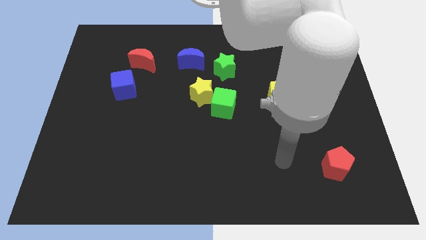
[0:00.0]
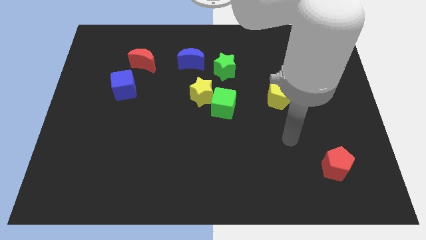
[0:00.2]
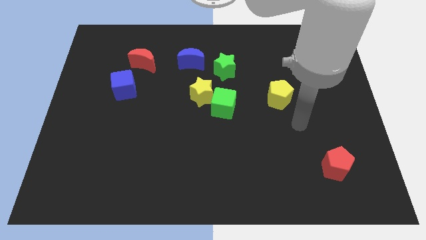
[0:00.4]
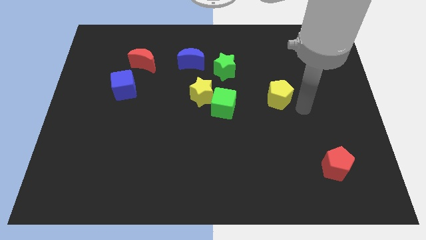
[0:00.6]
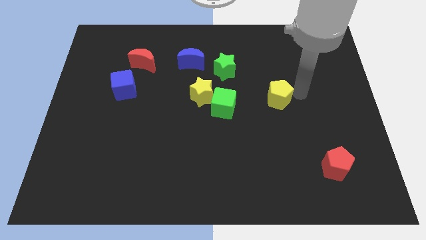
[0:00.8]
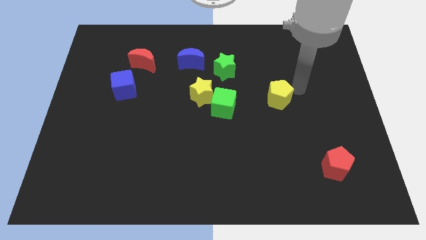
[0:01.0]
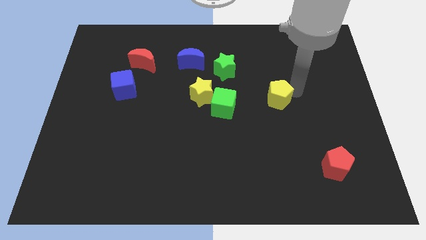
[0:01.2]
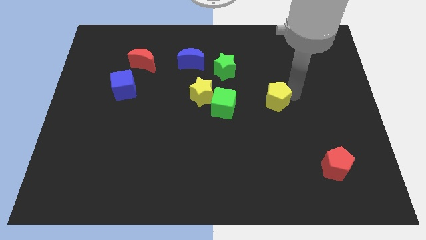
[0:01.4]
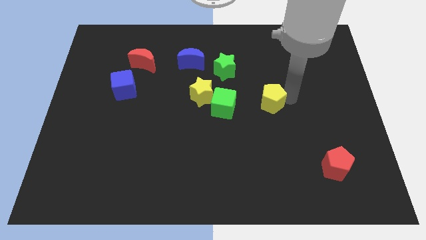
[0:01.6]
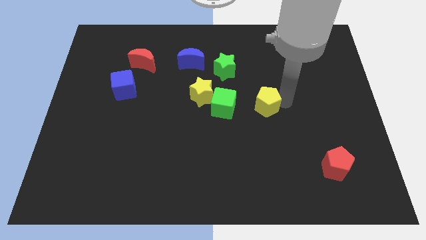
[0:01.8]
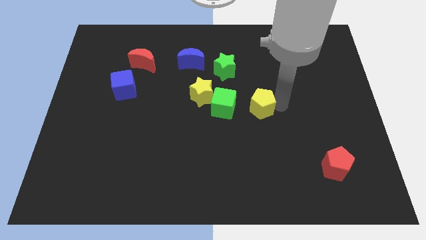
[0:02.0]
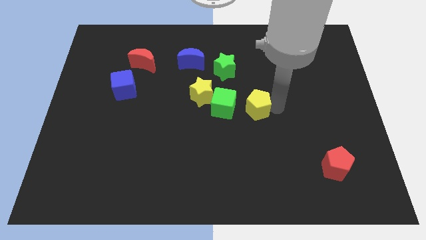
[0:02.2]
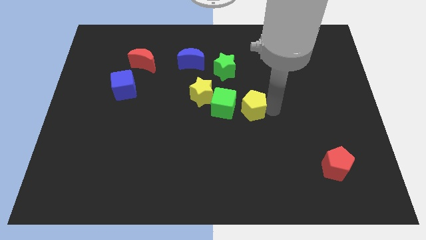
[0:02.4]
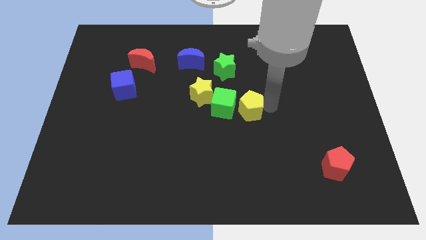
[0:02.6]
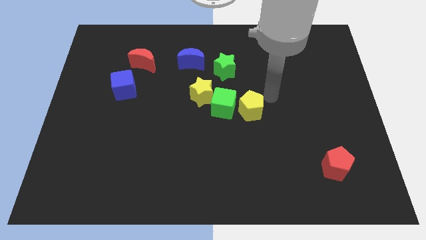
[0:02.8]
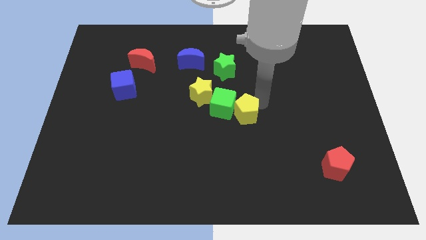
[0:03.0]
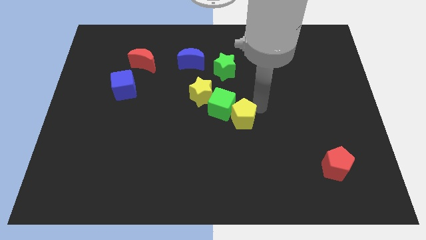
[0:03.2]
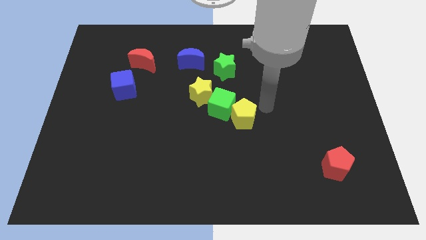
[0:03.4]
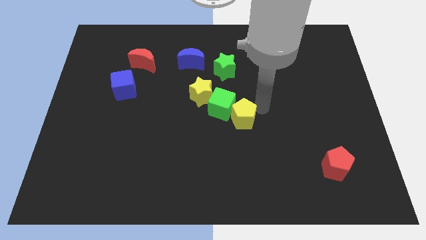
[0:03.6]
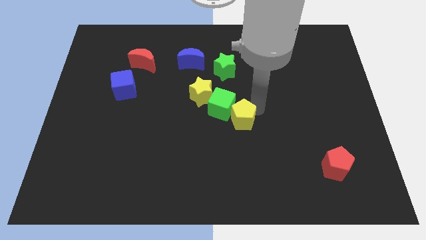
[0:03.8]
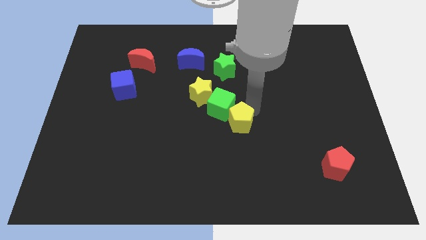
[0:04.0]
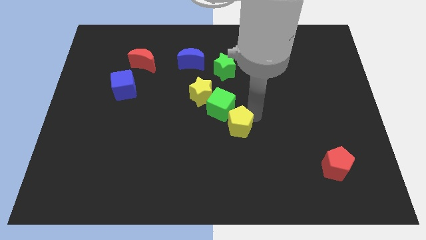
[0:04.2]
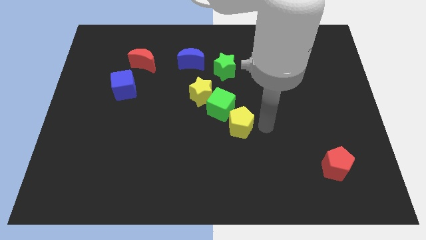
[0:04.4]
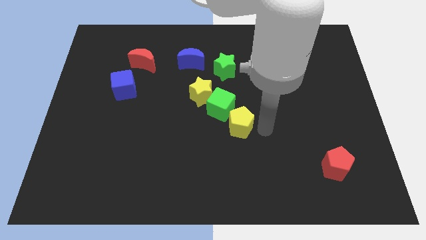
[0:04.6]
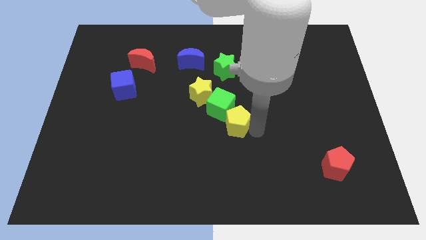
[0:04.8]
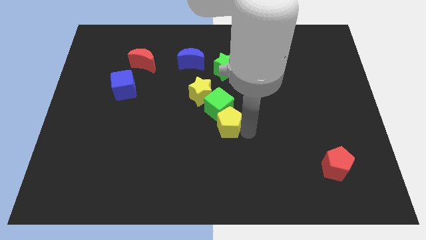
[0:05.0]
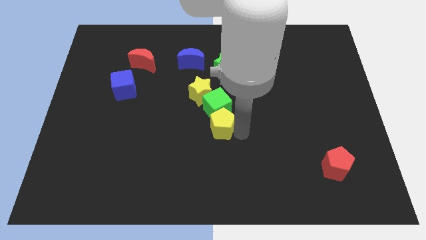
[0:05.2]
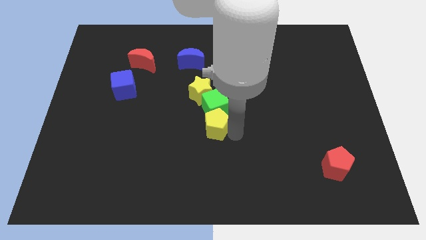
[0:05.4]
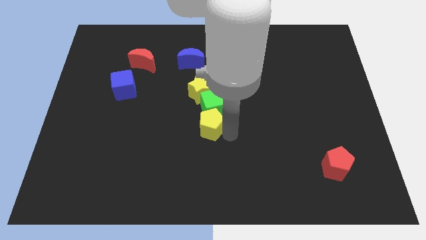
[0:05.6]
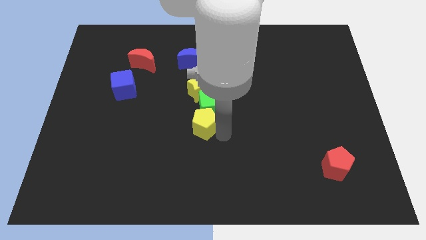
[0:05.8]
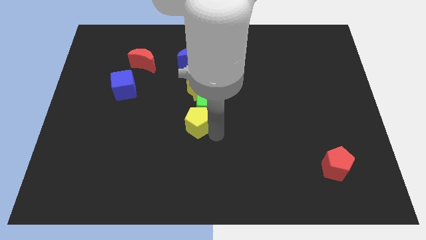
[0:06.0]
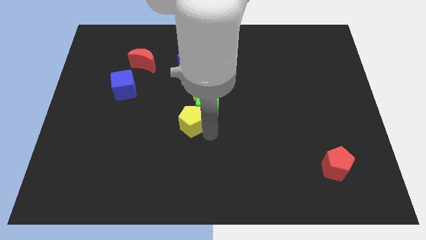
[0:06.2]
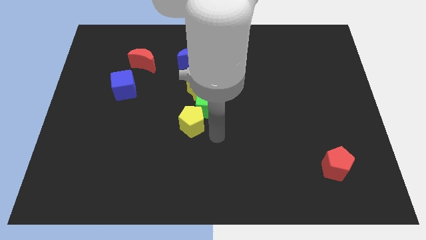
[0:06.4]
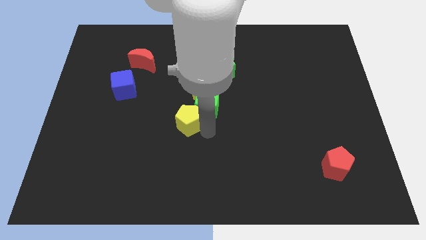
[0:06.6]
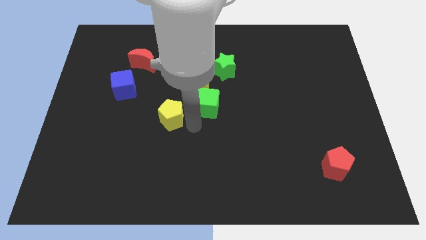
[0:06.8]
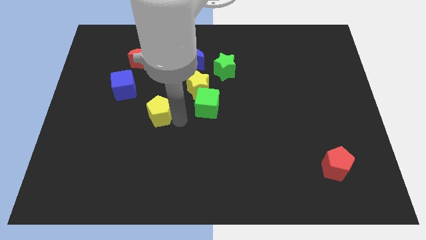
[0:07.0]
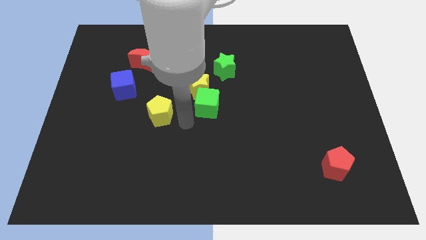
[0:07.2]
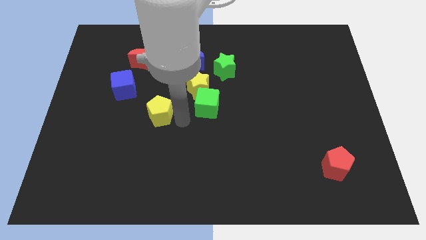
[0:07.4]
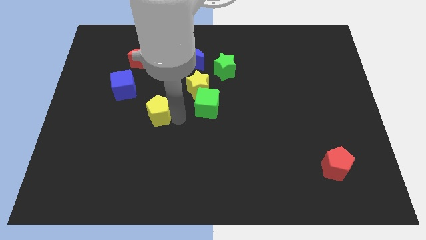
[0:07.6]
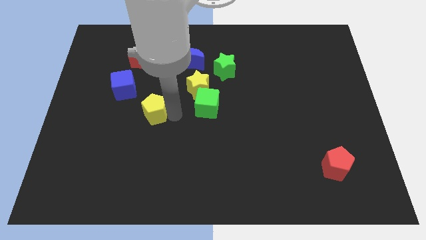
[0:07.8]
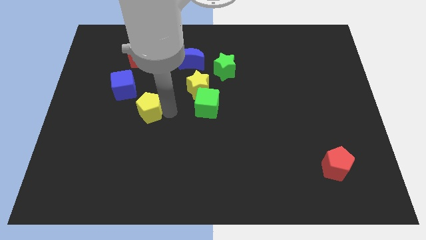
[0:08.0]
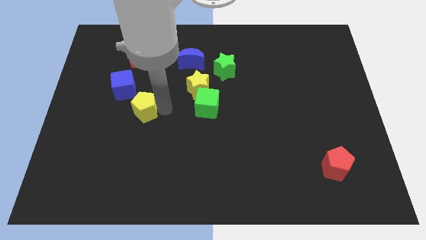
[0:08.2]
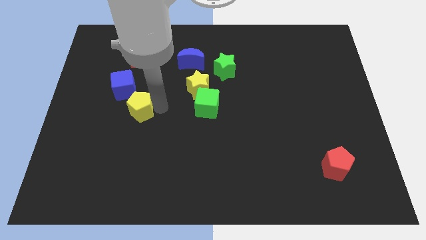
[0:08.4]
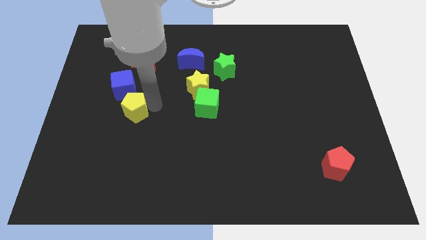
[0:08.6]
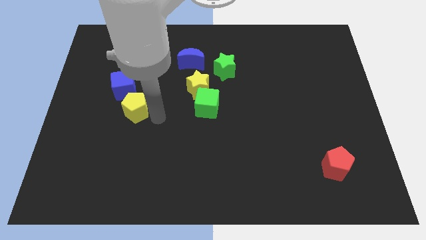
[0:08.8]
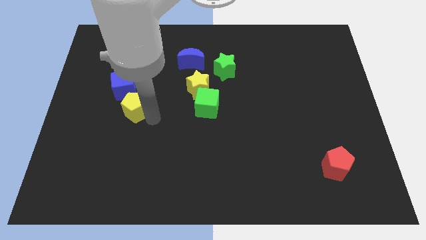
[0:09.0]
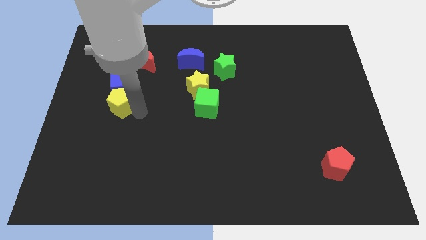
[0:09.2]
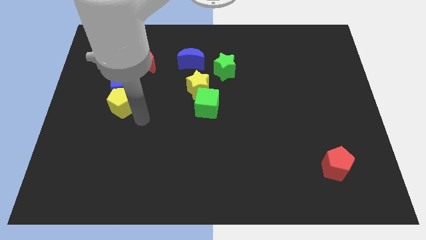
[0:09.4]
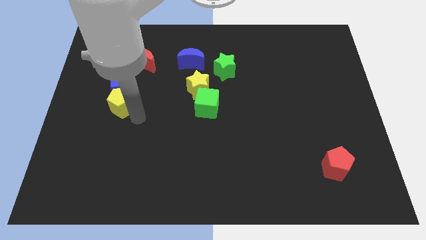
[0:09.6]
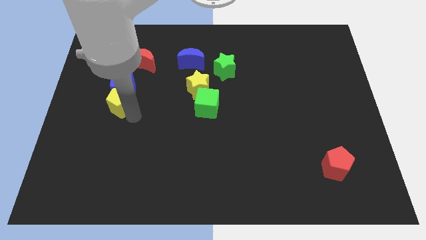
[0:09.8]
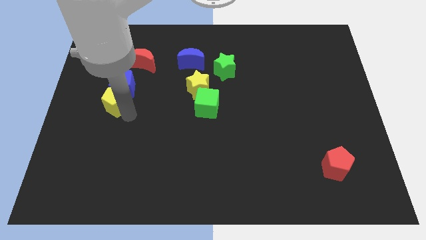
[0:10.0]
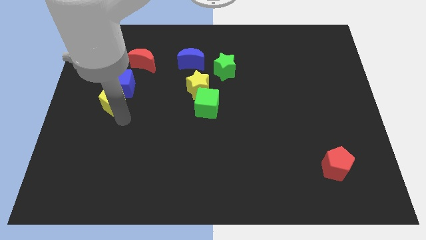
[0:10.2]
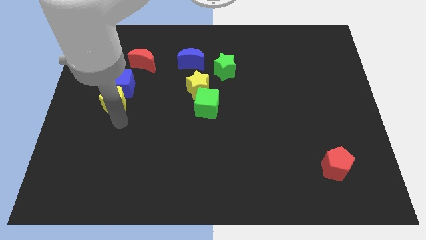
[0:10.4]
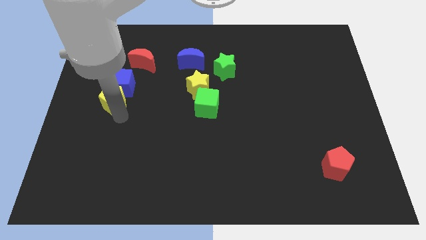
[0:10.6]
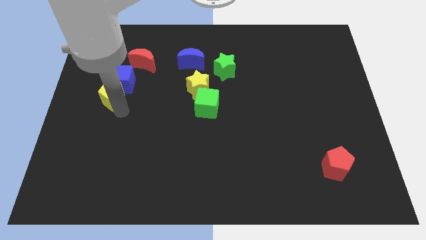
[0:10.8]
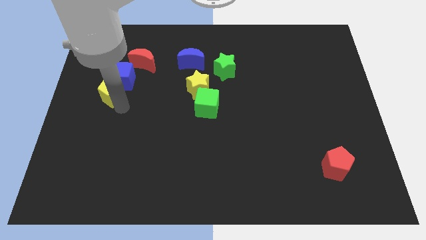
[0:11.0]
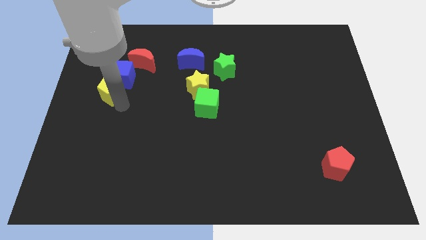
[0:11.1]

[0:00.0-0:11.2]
put the yellow pentagon to the bottom left side of the red moon

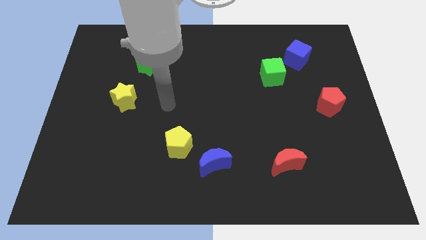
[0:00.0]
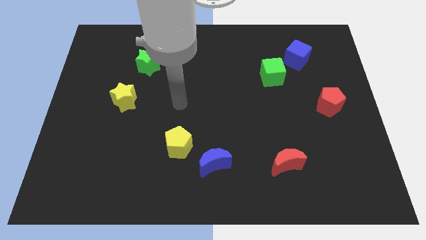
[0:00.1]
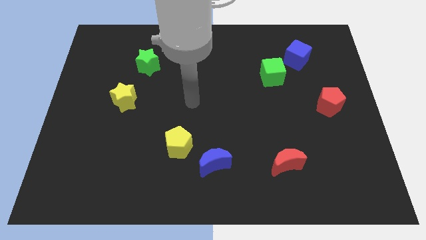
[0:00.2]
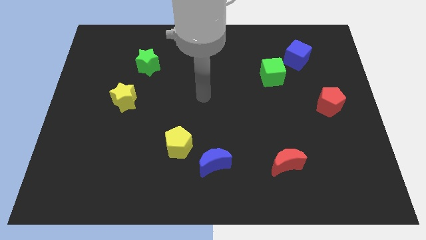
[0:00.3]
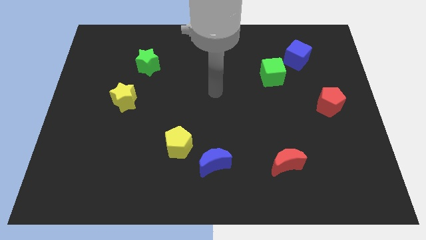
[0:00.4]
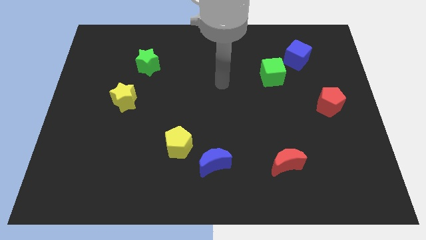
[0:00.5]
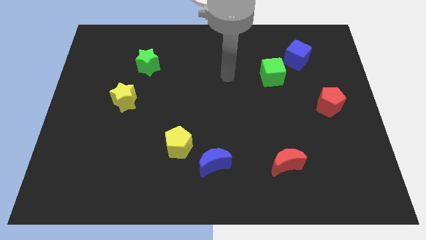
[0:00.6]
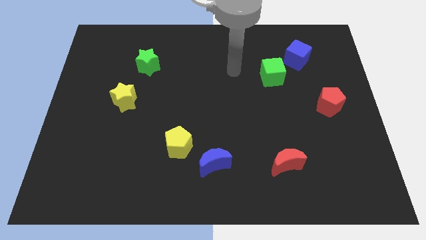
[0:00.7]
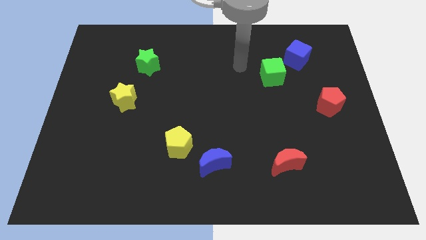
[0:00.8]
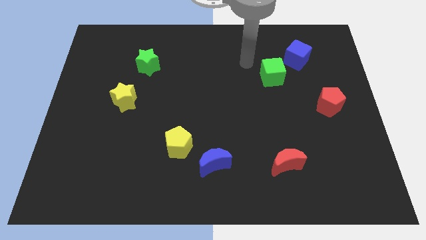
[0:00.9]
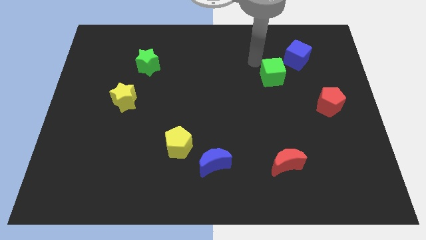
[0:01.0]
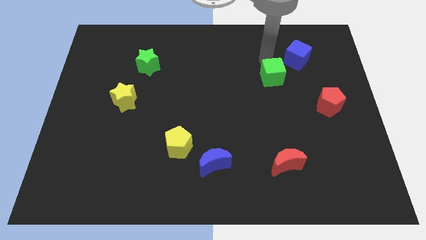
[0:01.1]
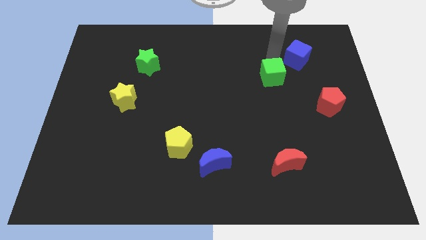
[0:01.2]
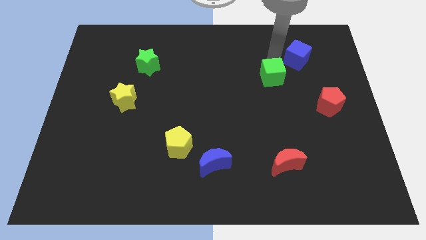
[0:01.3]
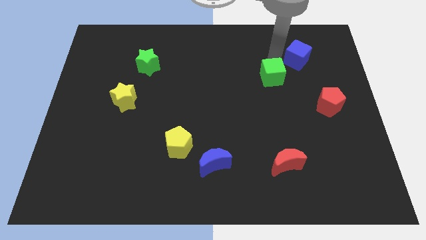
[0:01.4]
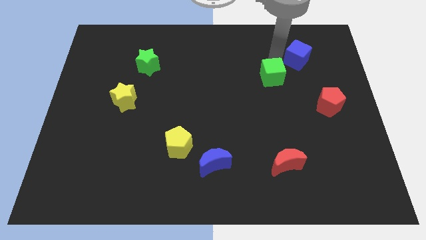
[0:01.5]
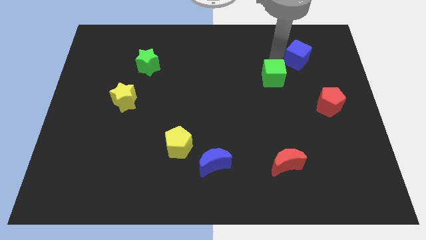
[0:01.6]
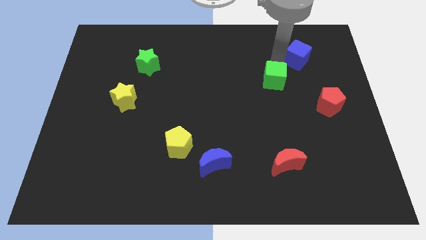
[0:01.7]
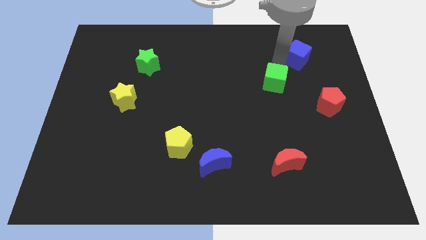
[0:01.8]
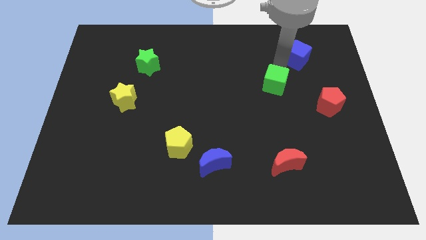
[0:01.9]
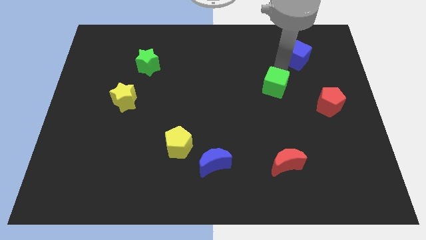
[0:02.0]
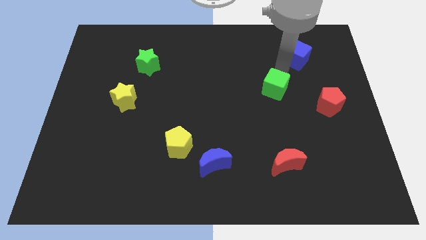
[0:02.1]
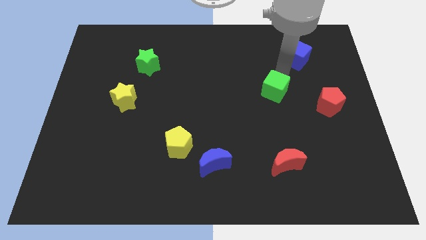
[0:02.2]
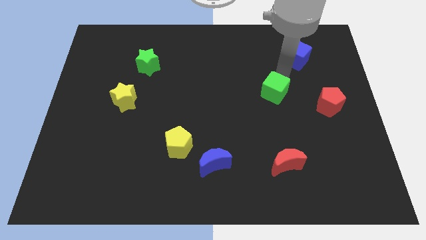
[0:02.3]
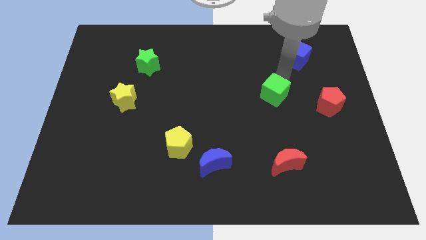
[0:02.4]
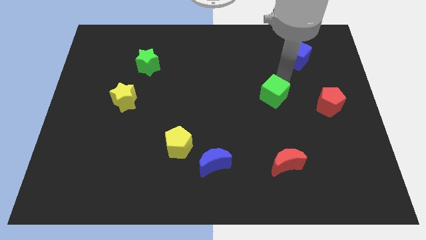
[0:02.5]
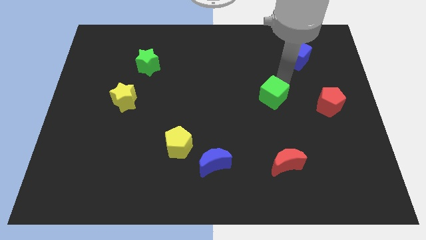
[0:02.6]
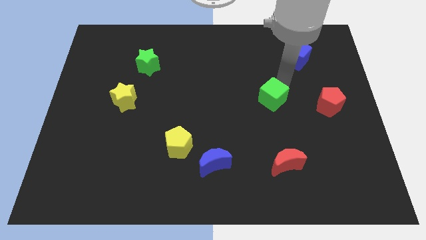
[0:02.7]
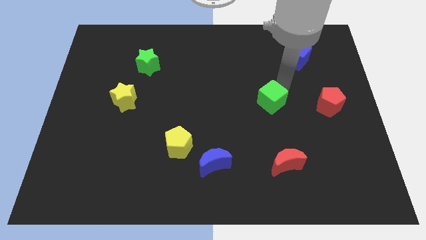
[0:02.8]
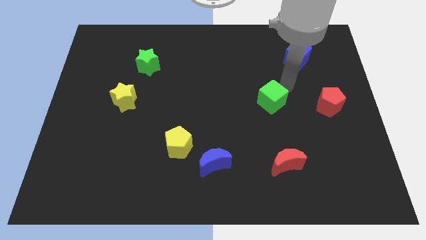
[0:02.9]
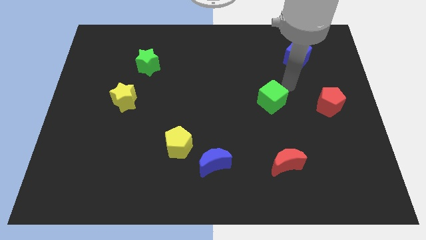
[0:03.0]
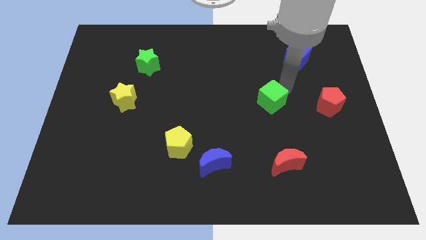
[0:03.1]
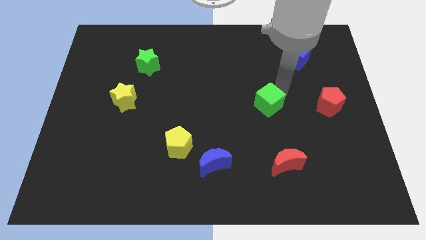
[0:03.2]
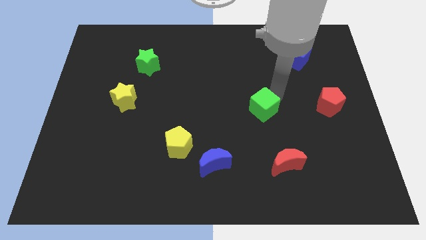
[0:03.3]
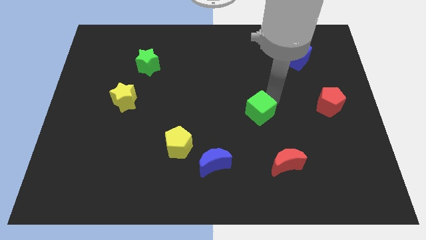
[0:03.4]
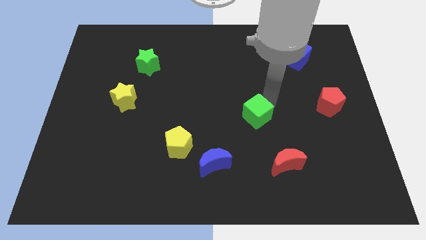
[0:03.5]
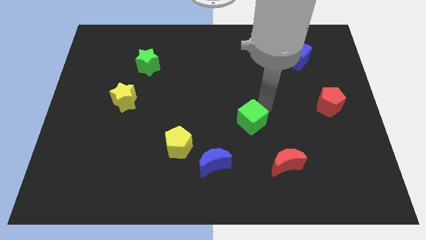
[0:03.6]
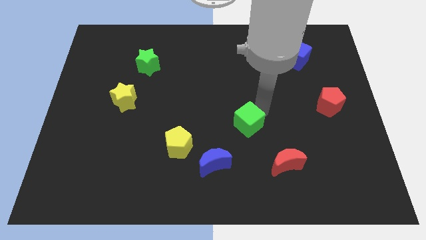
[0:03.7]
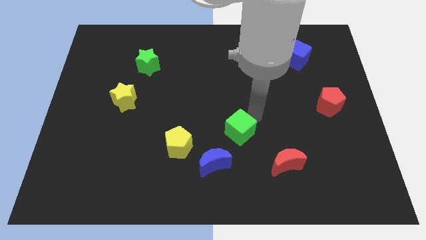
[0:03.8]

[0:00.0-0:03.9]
slide the green cube to the right side of the yellow pentagon
